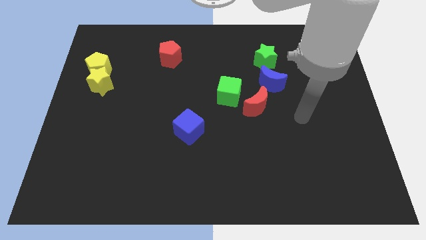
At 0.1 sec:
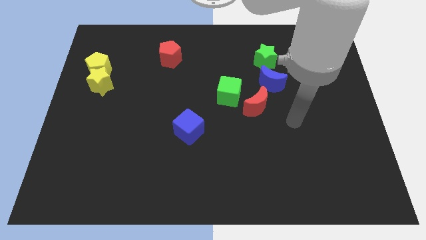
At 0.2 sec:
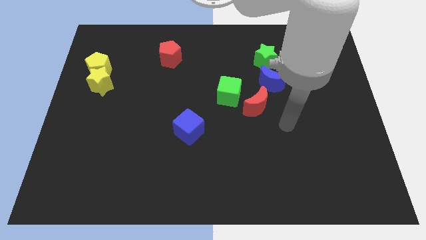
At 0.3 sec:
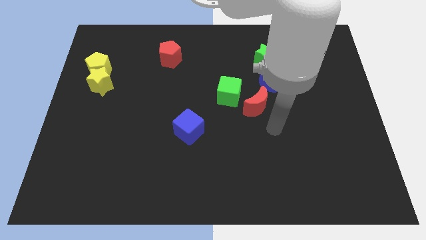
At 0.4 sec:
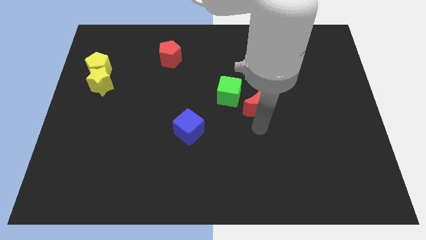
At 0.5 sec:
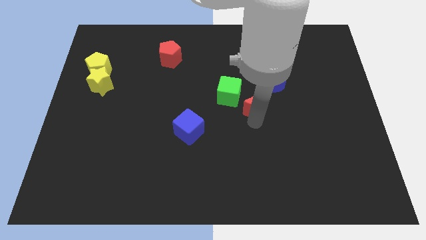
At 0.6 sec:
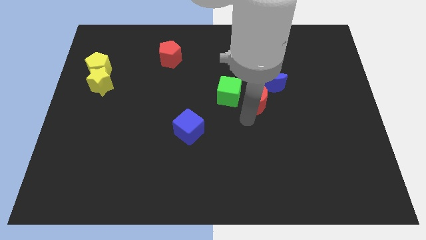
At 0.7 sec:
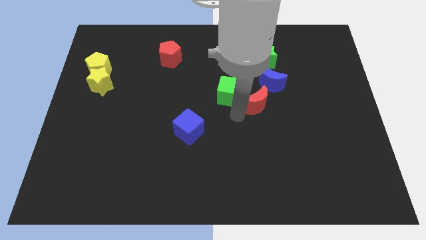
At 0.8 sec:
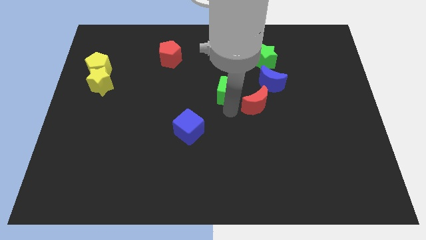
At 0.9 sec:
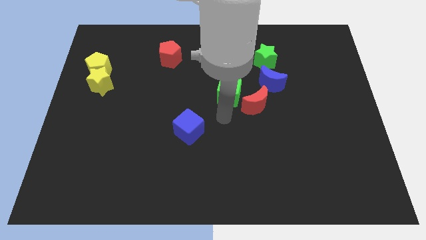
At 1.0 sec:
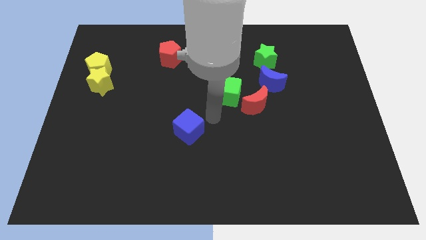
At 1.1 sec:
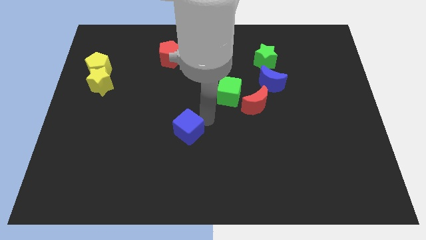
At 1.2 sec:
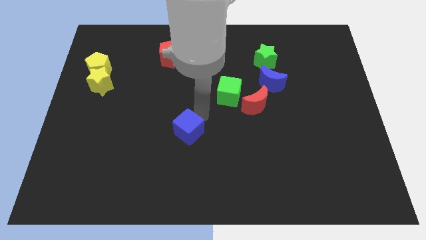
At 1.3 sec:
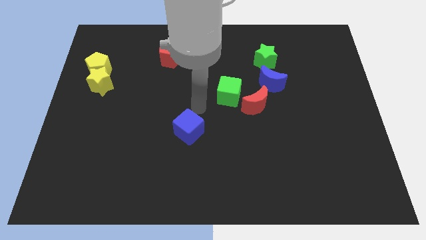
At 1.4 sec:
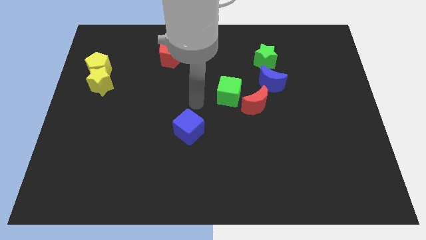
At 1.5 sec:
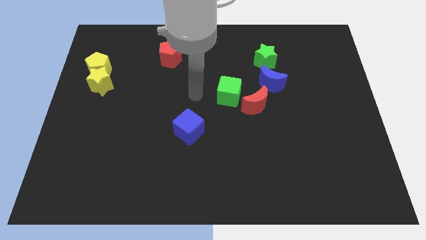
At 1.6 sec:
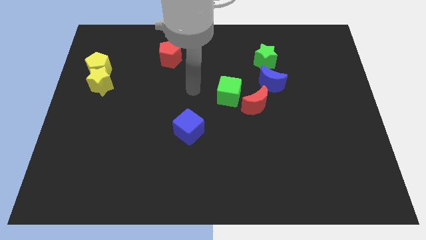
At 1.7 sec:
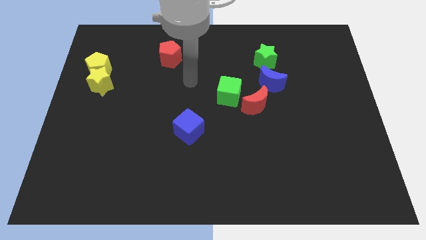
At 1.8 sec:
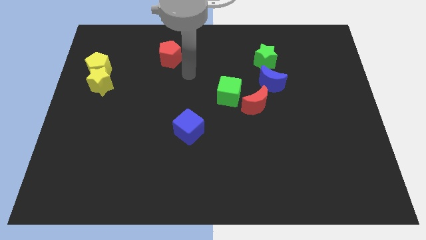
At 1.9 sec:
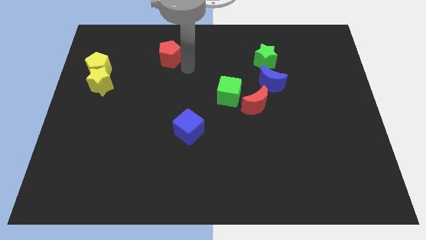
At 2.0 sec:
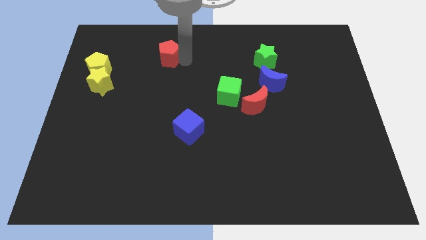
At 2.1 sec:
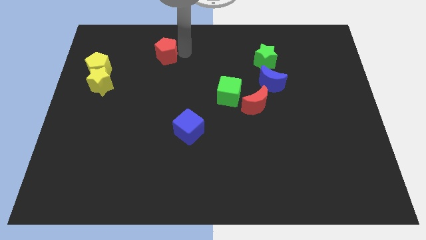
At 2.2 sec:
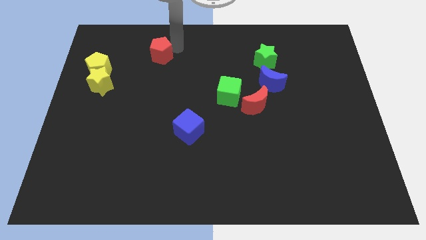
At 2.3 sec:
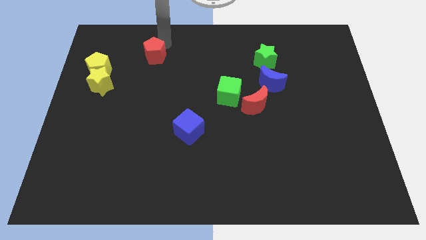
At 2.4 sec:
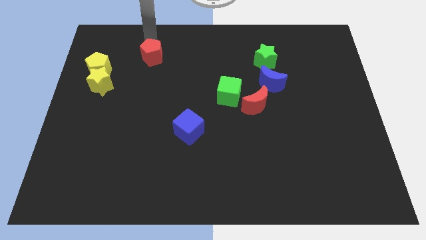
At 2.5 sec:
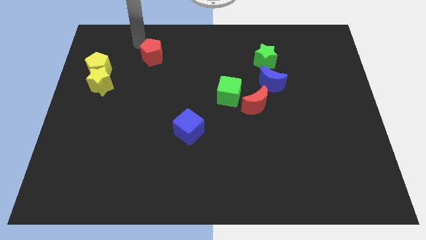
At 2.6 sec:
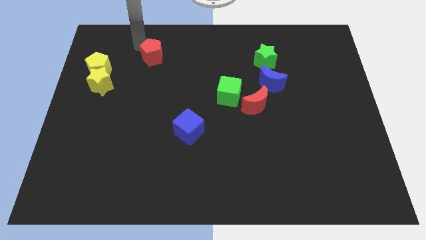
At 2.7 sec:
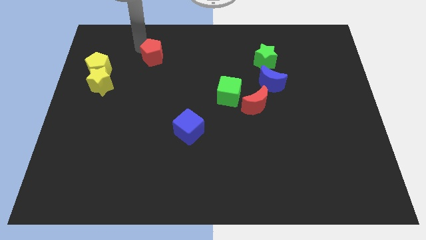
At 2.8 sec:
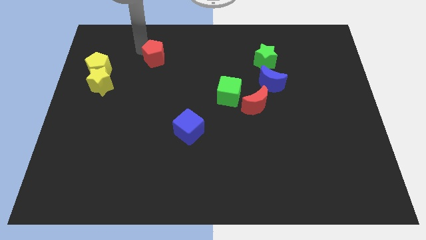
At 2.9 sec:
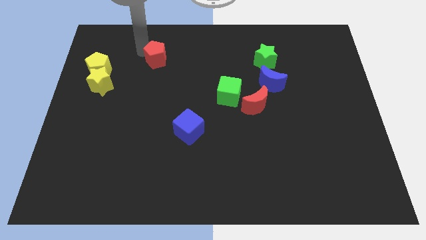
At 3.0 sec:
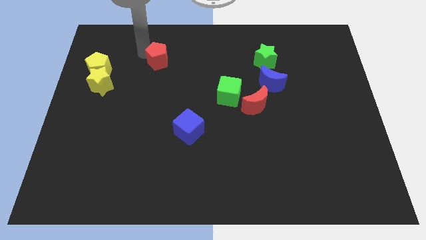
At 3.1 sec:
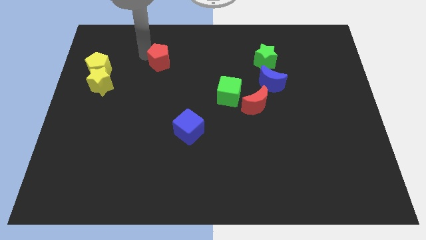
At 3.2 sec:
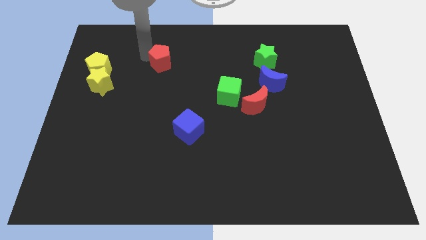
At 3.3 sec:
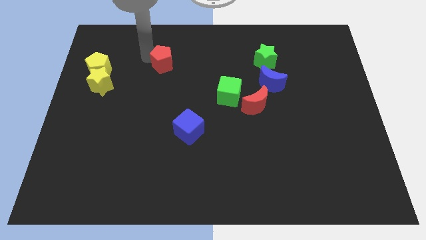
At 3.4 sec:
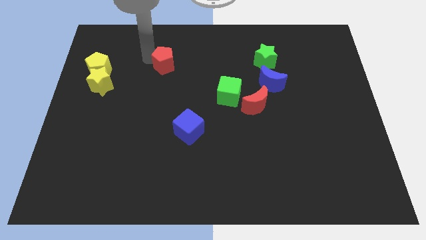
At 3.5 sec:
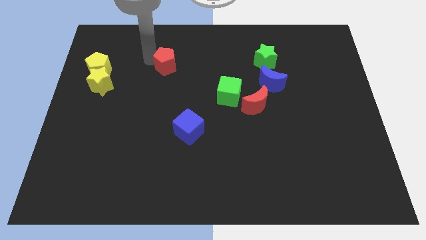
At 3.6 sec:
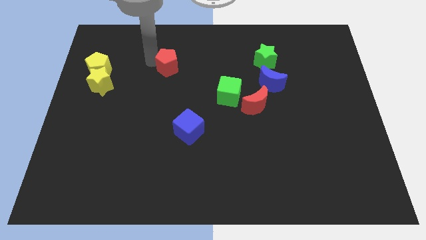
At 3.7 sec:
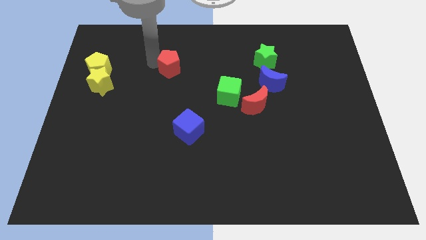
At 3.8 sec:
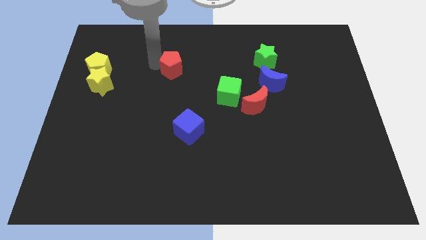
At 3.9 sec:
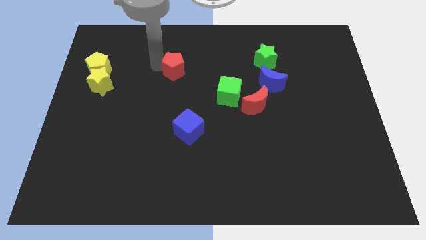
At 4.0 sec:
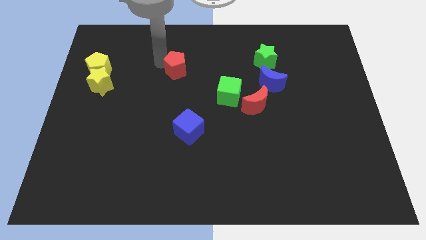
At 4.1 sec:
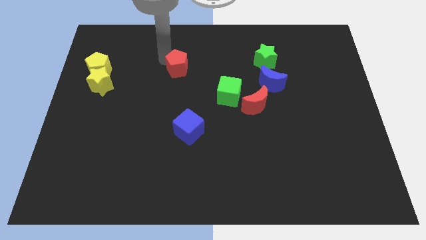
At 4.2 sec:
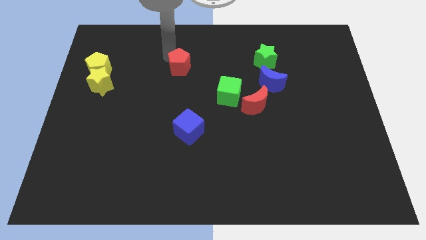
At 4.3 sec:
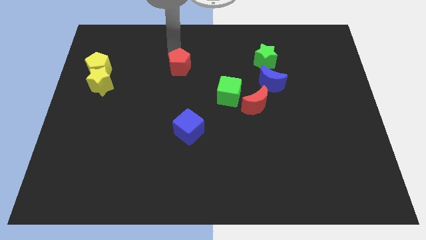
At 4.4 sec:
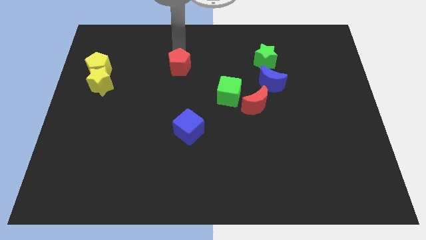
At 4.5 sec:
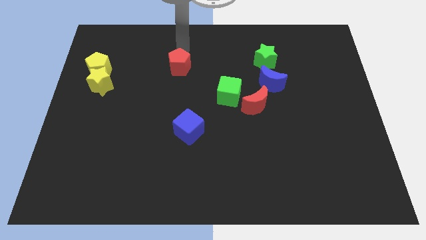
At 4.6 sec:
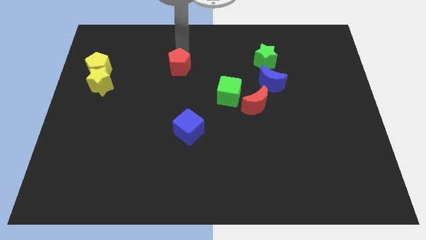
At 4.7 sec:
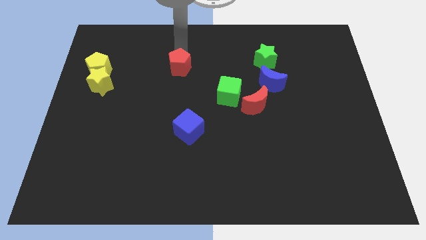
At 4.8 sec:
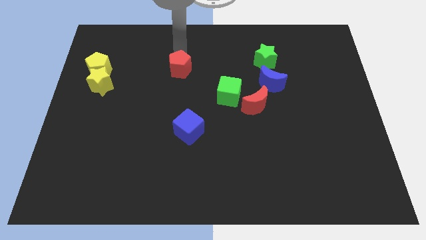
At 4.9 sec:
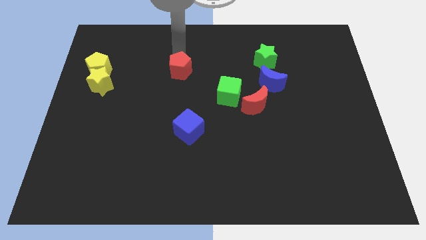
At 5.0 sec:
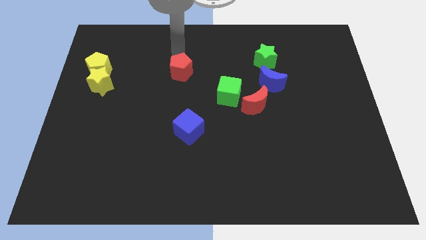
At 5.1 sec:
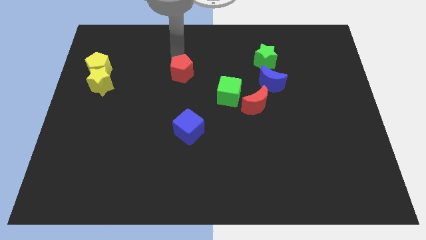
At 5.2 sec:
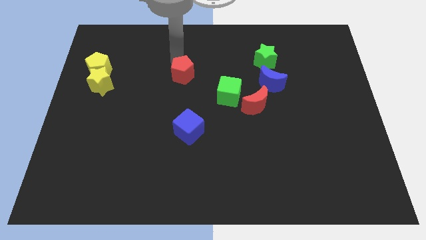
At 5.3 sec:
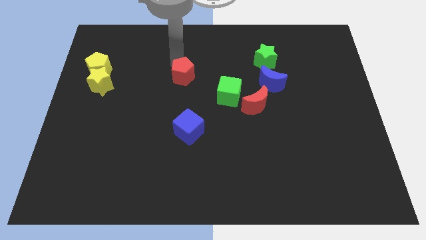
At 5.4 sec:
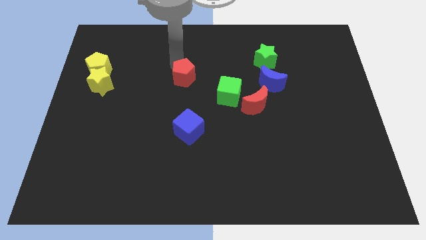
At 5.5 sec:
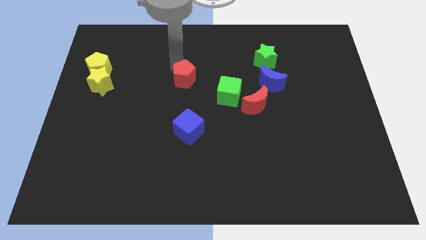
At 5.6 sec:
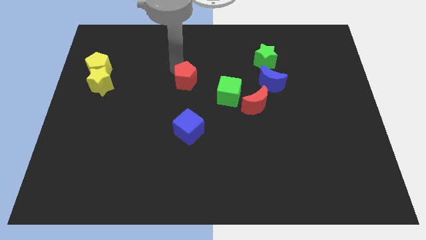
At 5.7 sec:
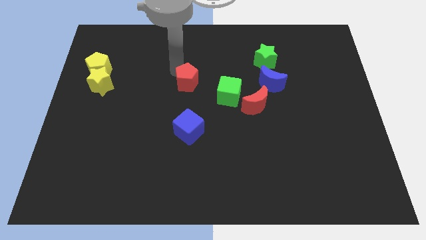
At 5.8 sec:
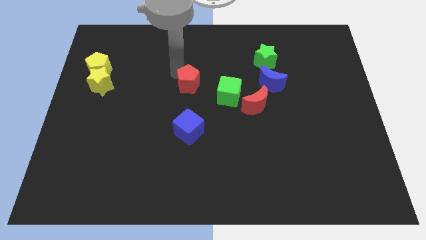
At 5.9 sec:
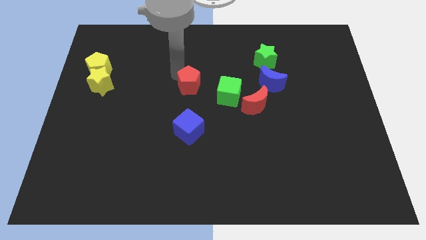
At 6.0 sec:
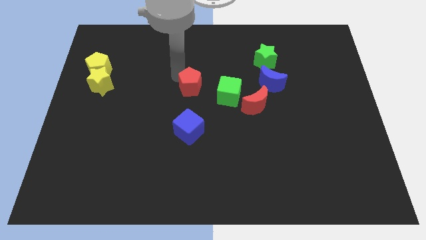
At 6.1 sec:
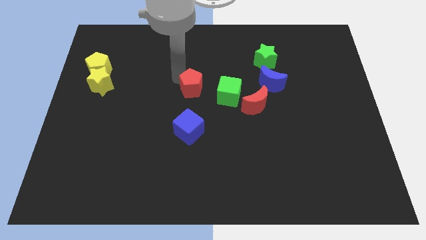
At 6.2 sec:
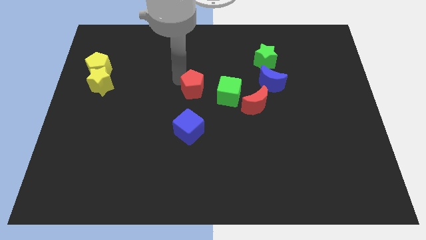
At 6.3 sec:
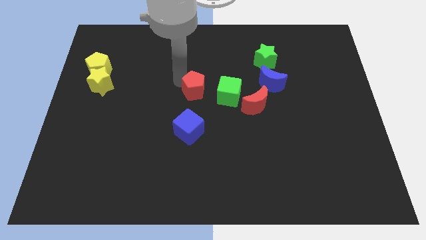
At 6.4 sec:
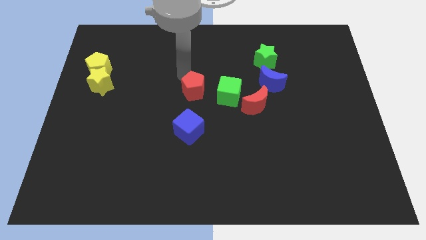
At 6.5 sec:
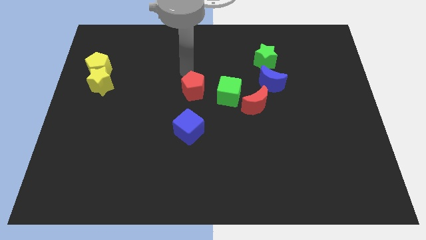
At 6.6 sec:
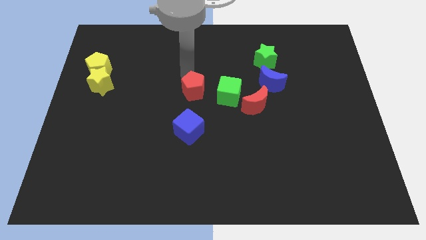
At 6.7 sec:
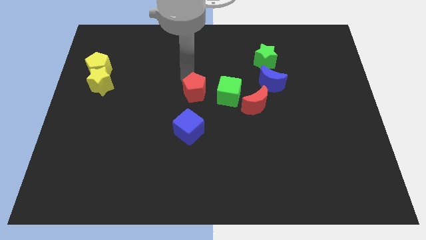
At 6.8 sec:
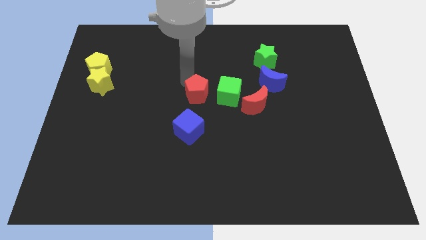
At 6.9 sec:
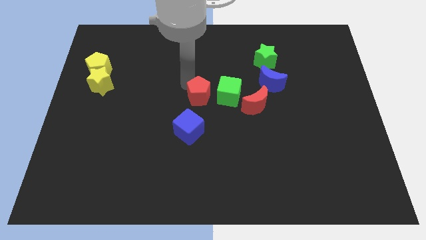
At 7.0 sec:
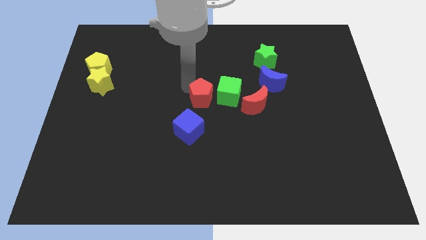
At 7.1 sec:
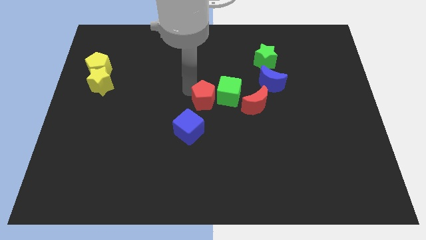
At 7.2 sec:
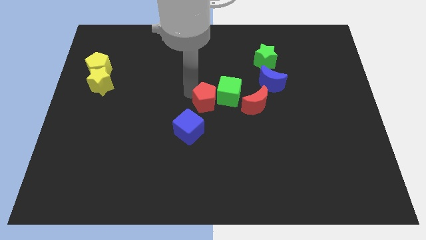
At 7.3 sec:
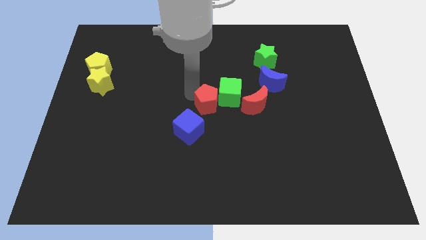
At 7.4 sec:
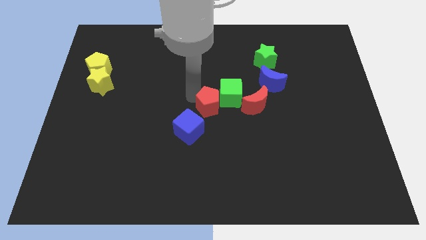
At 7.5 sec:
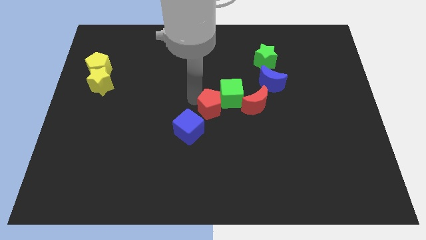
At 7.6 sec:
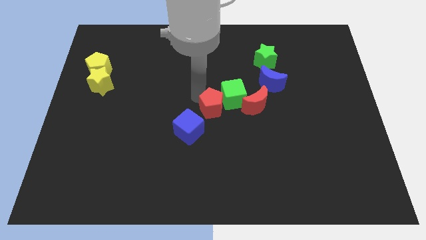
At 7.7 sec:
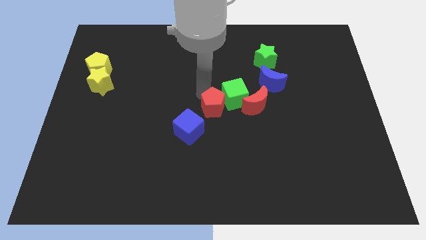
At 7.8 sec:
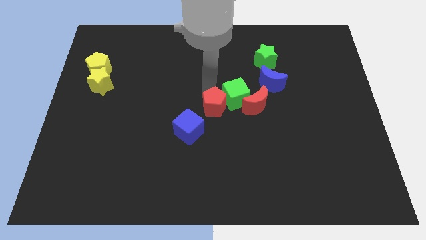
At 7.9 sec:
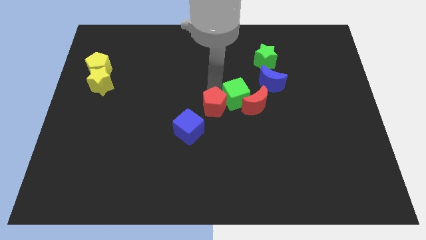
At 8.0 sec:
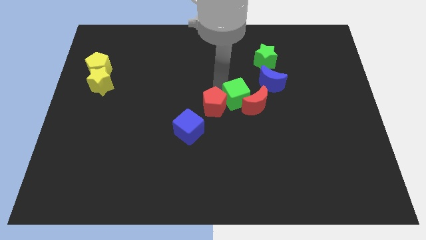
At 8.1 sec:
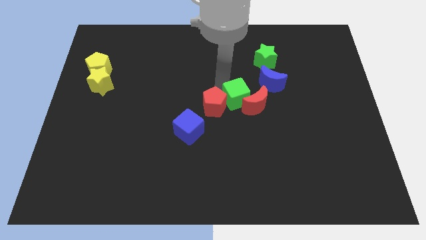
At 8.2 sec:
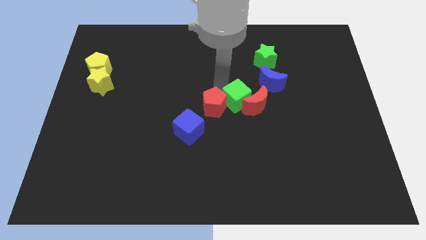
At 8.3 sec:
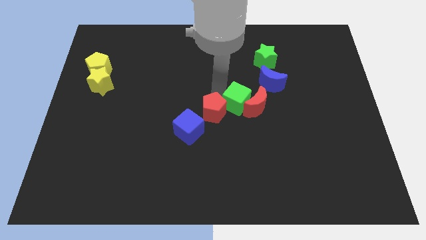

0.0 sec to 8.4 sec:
push the red pentagon downwards and then right
